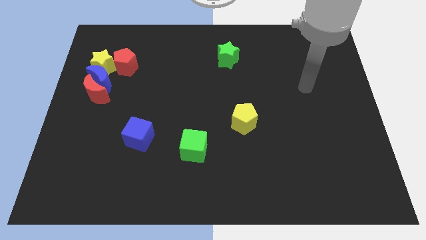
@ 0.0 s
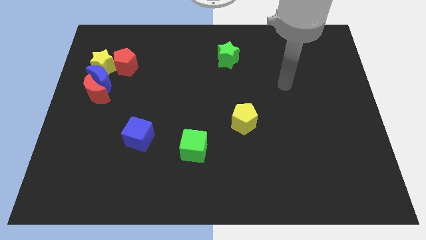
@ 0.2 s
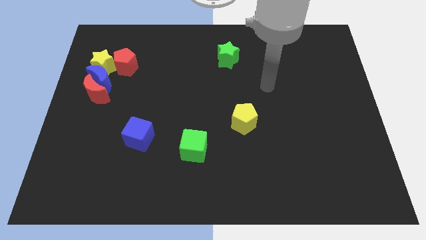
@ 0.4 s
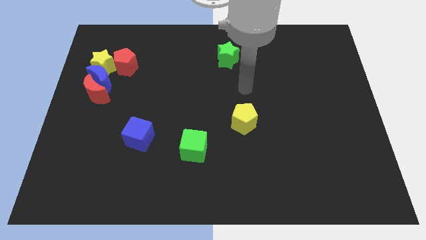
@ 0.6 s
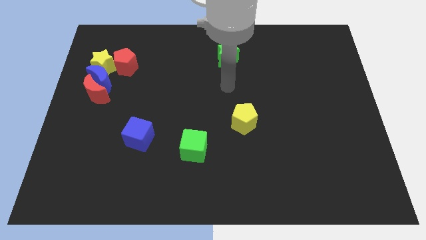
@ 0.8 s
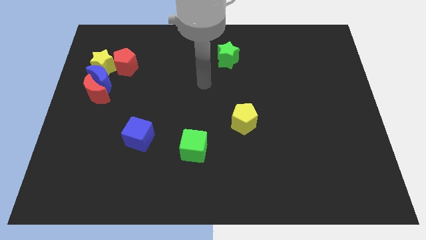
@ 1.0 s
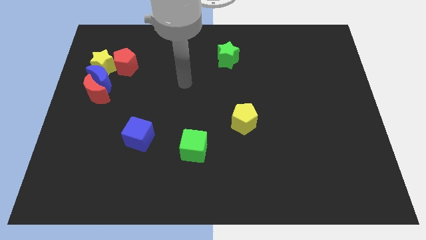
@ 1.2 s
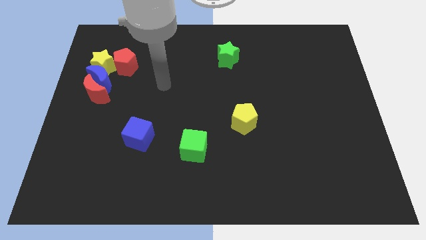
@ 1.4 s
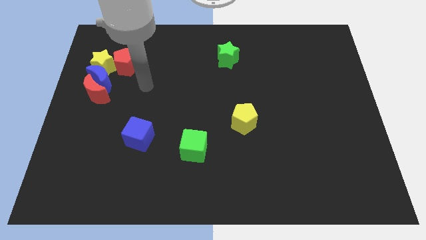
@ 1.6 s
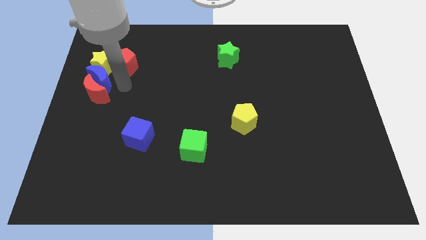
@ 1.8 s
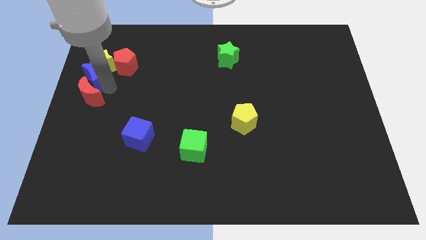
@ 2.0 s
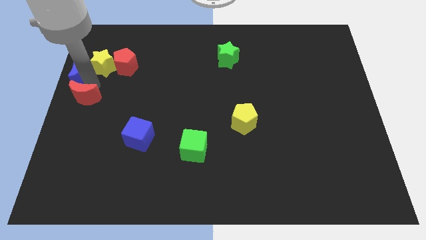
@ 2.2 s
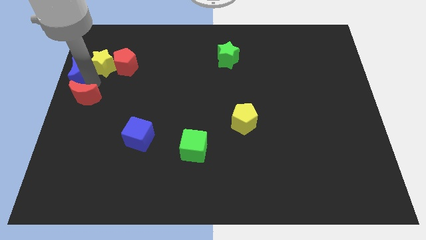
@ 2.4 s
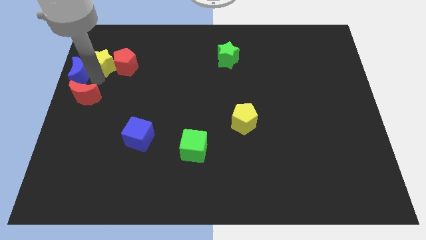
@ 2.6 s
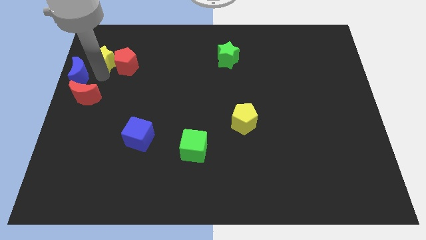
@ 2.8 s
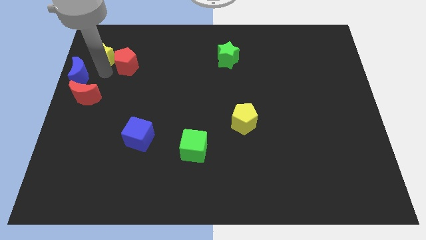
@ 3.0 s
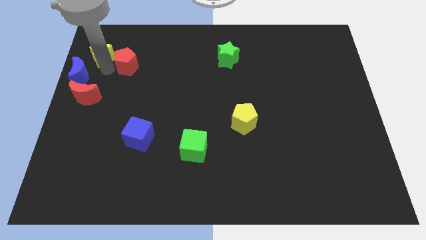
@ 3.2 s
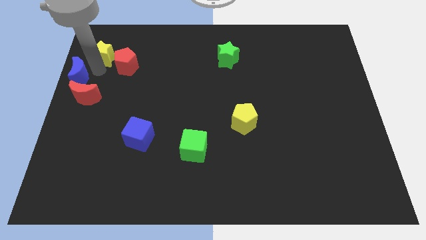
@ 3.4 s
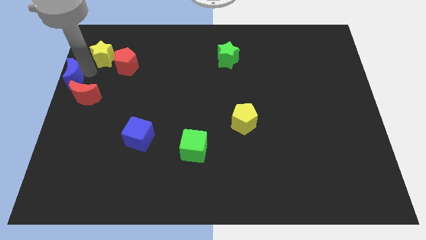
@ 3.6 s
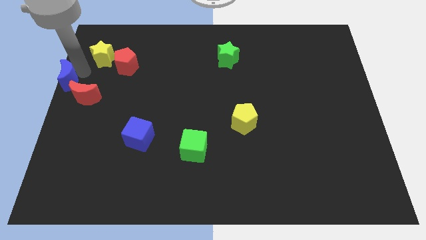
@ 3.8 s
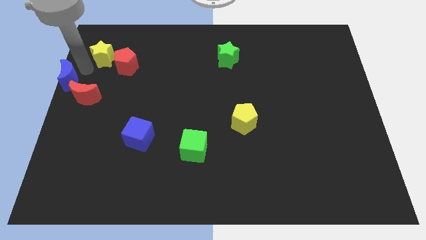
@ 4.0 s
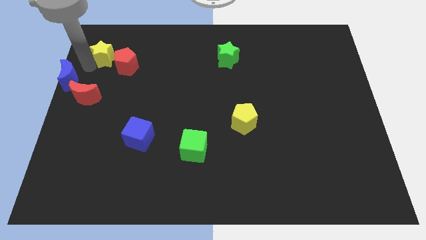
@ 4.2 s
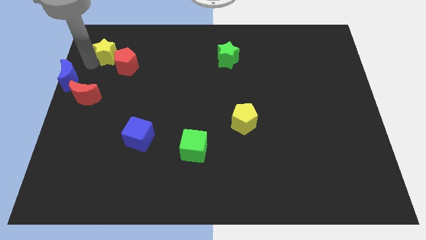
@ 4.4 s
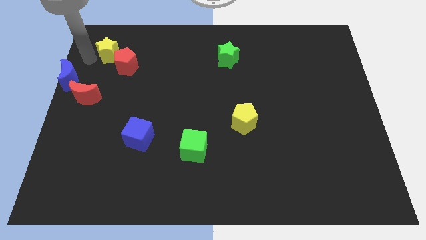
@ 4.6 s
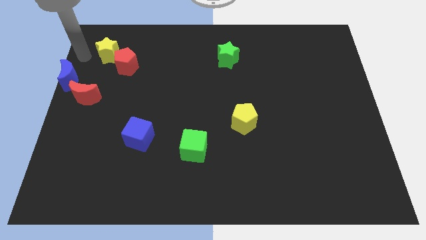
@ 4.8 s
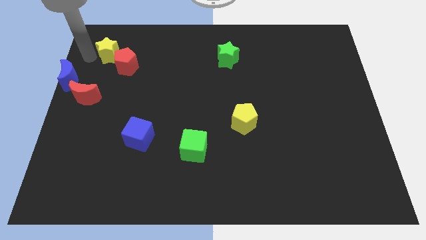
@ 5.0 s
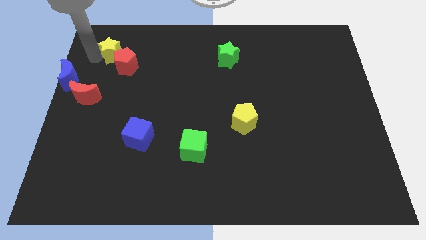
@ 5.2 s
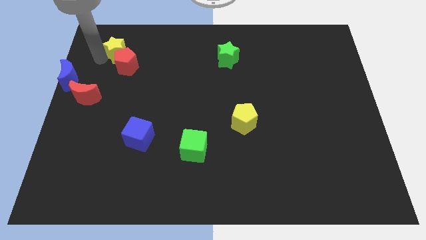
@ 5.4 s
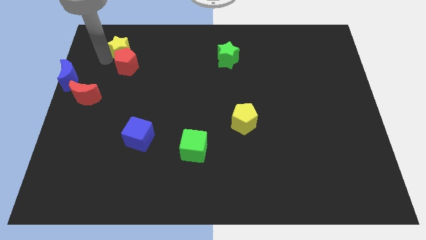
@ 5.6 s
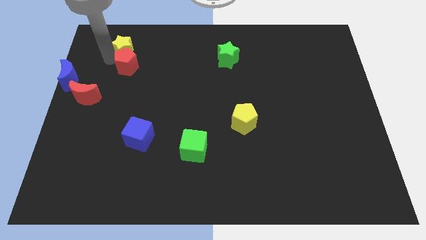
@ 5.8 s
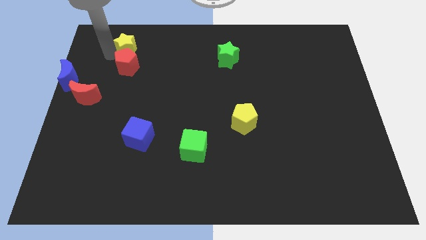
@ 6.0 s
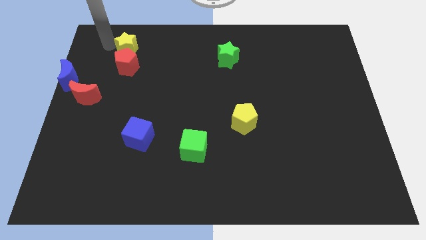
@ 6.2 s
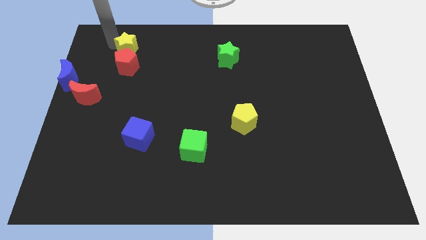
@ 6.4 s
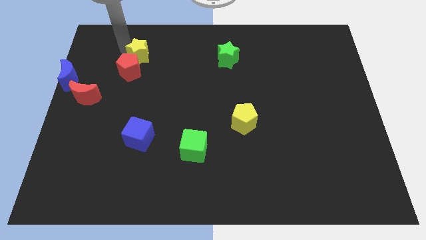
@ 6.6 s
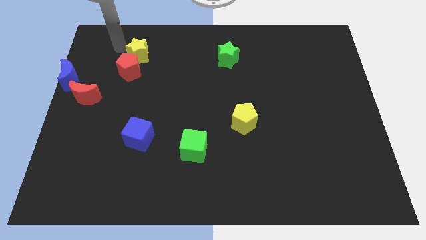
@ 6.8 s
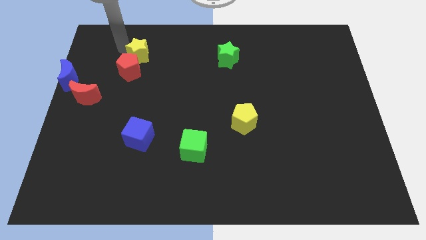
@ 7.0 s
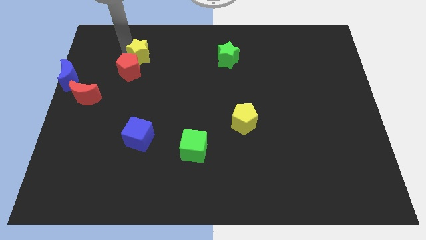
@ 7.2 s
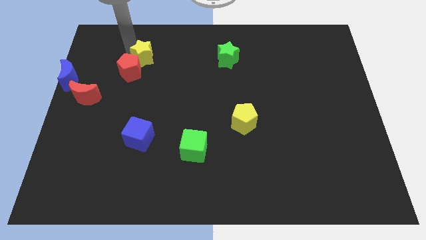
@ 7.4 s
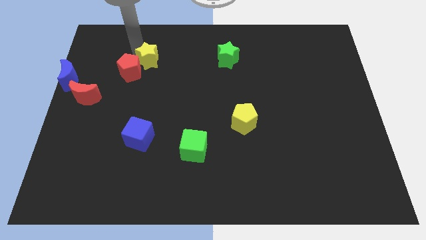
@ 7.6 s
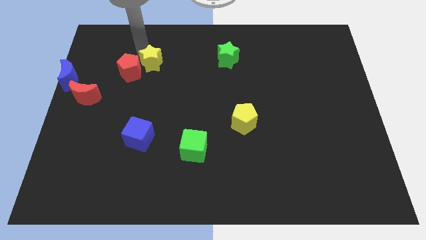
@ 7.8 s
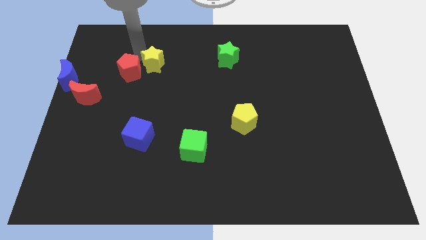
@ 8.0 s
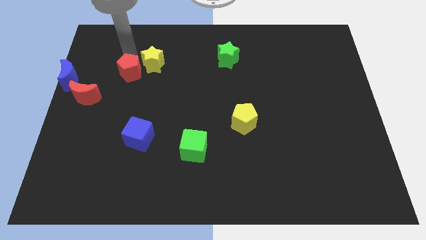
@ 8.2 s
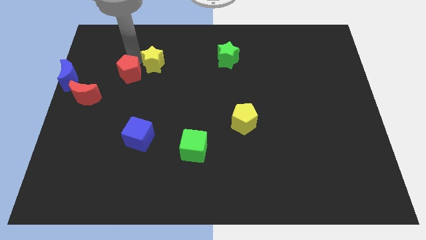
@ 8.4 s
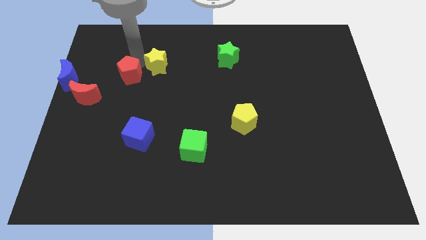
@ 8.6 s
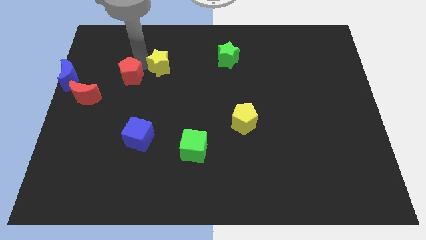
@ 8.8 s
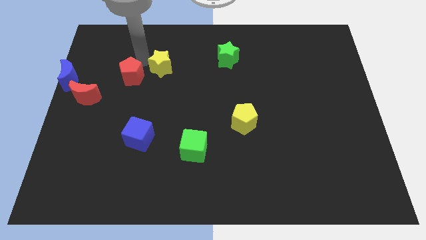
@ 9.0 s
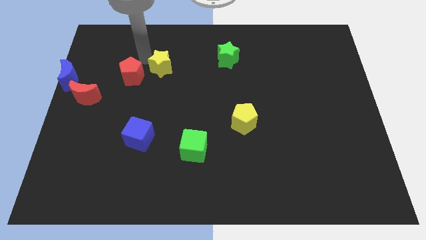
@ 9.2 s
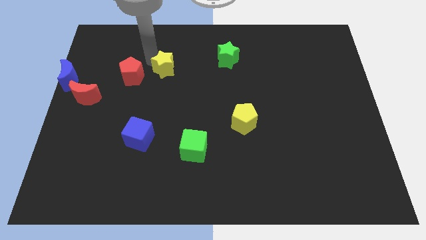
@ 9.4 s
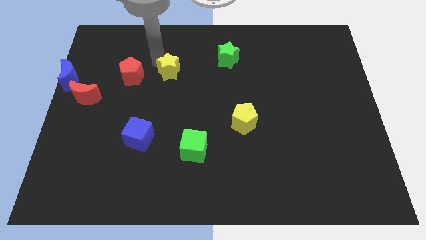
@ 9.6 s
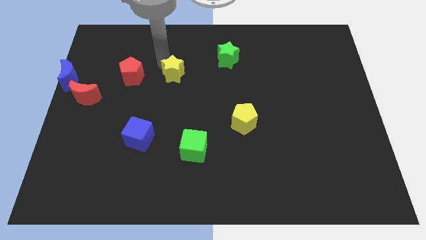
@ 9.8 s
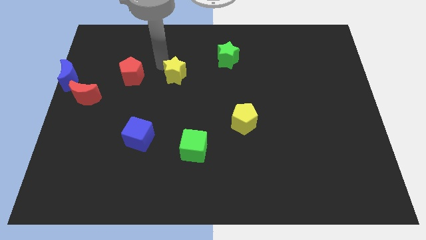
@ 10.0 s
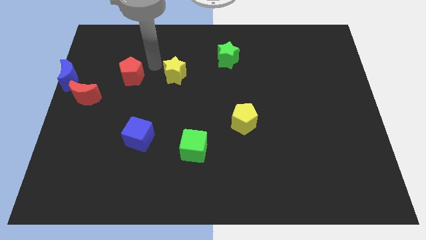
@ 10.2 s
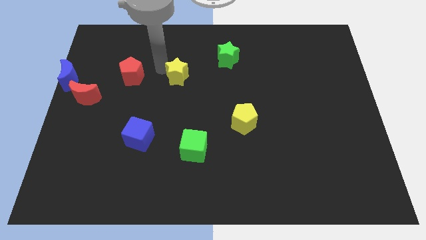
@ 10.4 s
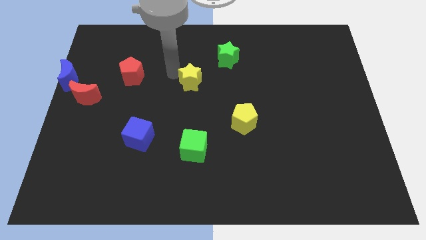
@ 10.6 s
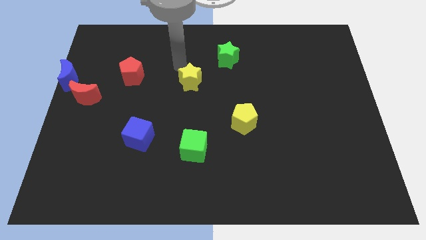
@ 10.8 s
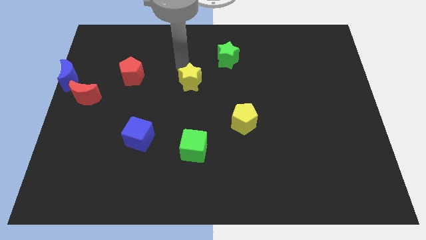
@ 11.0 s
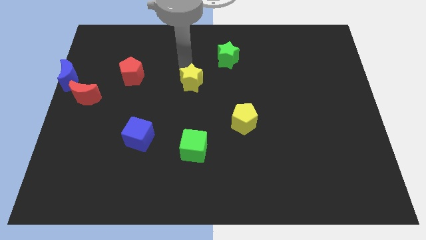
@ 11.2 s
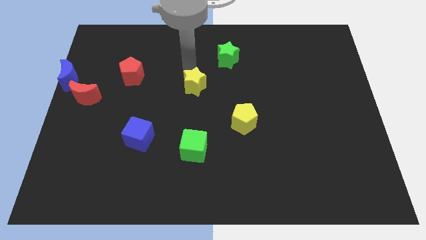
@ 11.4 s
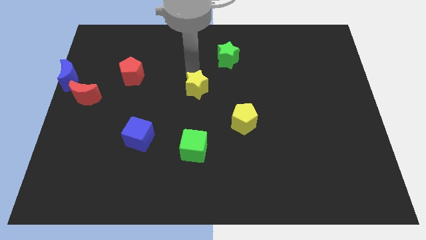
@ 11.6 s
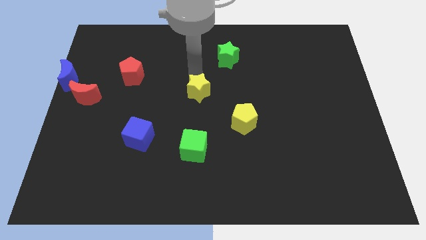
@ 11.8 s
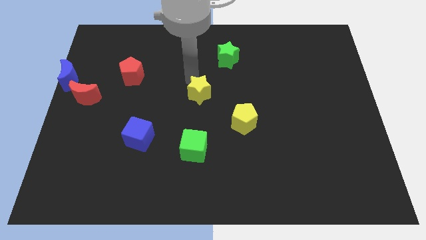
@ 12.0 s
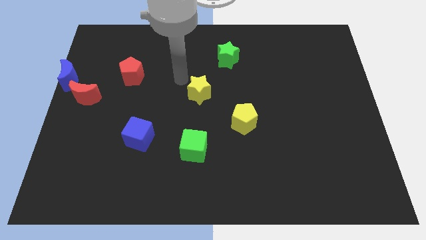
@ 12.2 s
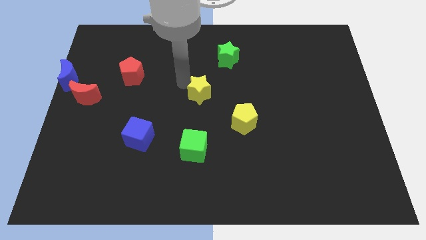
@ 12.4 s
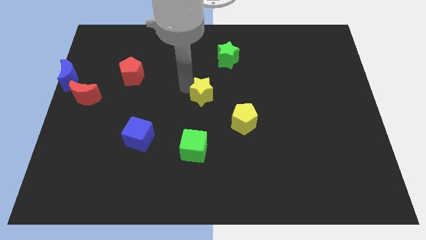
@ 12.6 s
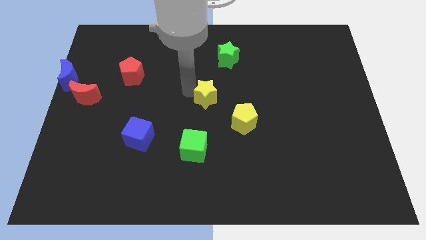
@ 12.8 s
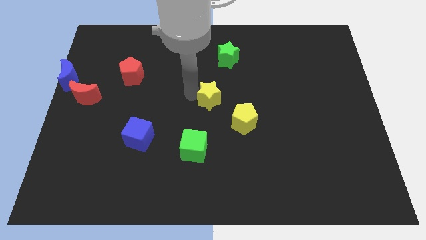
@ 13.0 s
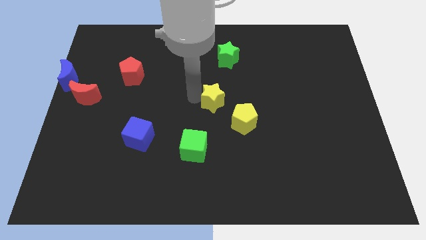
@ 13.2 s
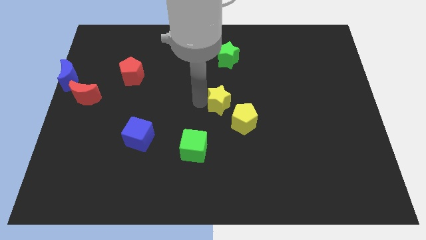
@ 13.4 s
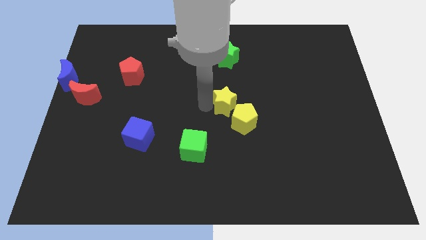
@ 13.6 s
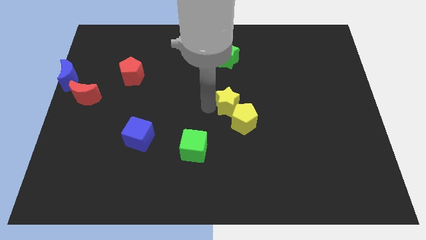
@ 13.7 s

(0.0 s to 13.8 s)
slide the yellow star next to the yellow pentagon
